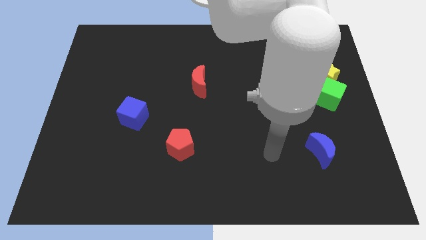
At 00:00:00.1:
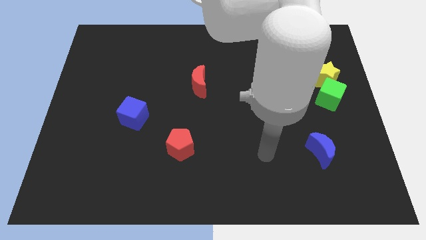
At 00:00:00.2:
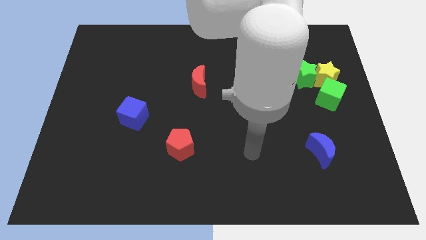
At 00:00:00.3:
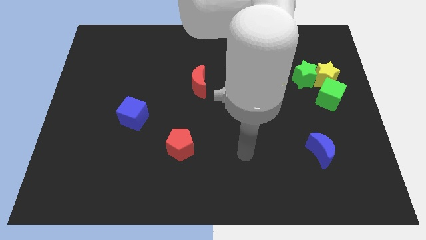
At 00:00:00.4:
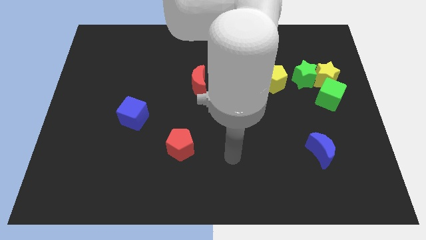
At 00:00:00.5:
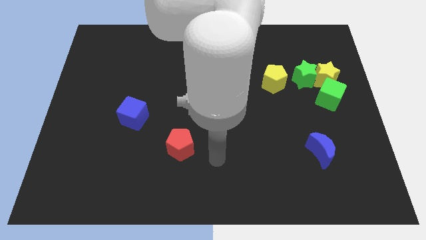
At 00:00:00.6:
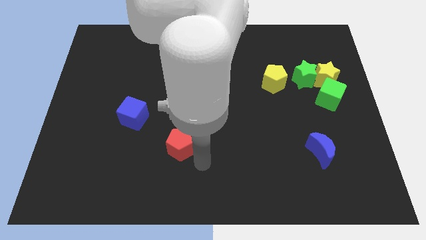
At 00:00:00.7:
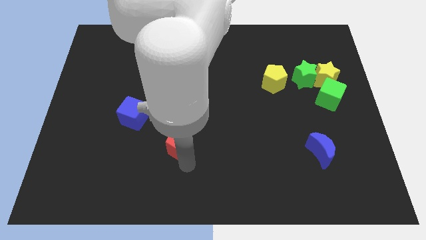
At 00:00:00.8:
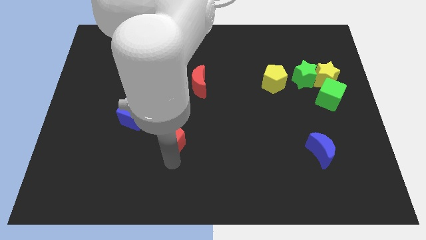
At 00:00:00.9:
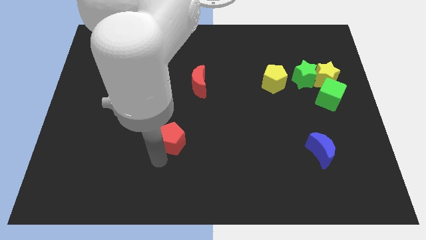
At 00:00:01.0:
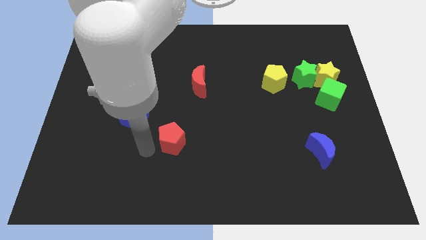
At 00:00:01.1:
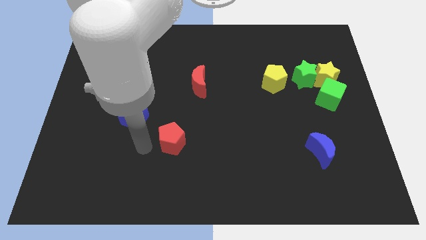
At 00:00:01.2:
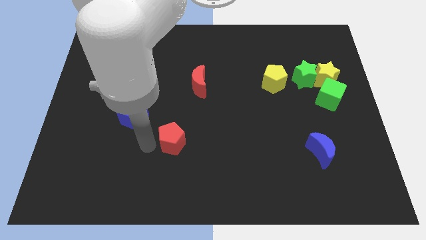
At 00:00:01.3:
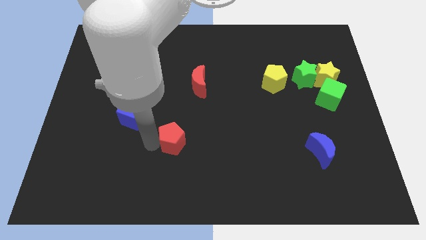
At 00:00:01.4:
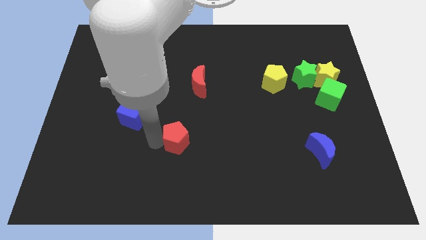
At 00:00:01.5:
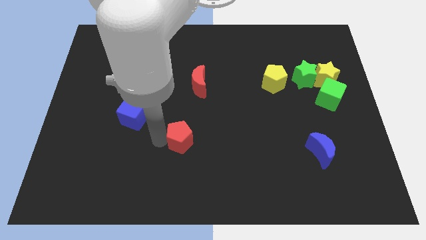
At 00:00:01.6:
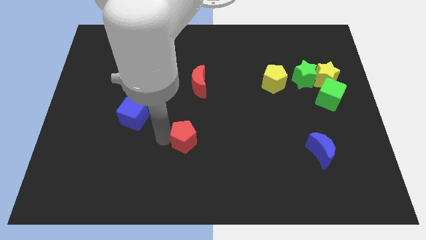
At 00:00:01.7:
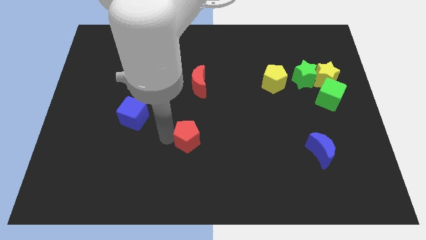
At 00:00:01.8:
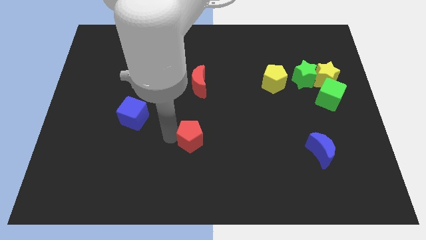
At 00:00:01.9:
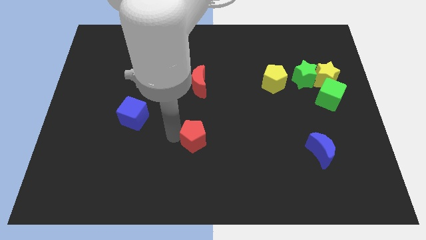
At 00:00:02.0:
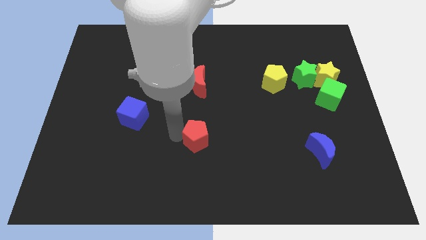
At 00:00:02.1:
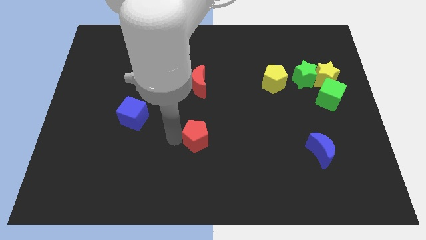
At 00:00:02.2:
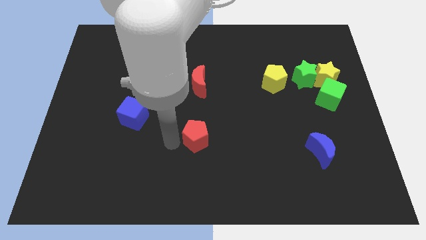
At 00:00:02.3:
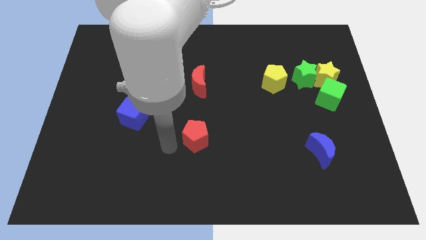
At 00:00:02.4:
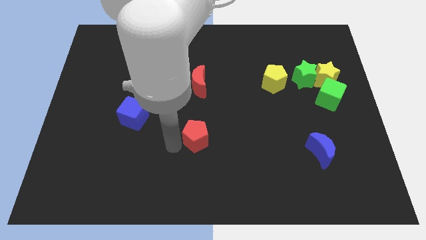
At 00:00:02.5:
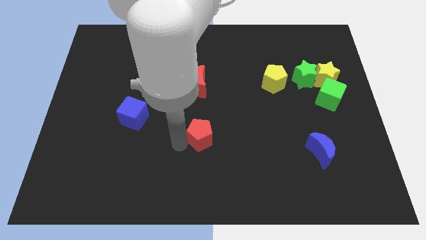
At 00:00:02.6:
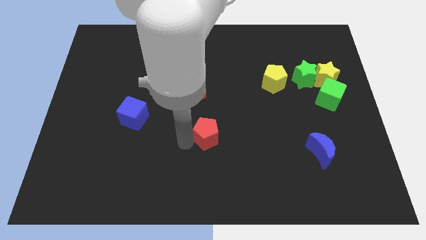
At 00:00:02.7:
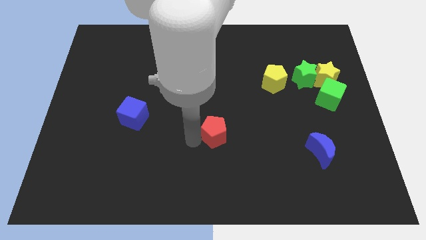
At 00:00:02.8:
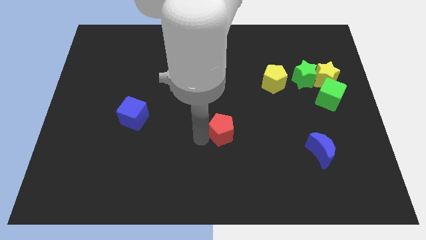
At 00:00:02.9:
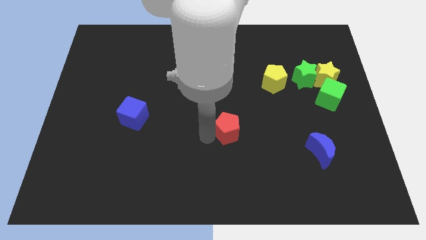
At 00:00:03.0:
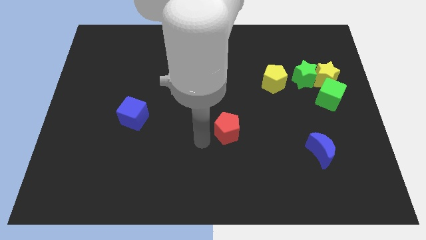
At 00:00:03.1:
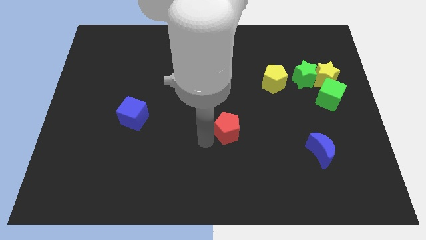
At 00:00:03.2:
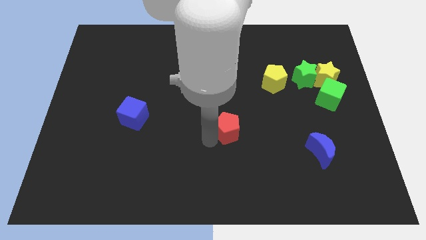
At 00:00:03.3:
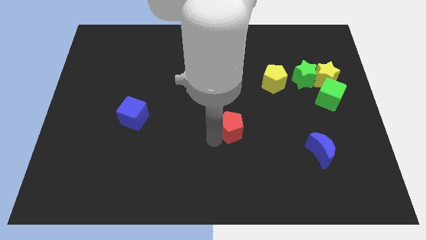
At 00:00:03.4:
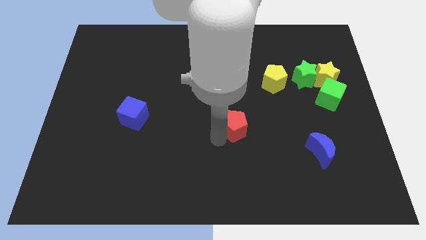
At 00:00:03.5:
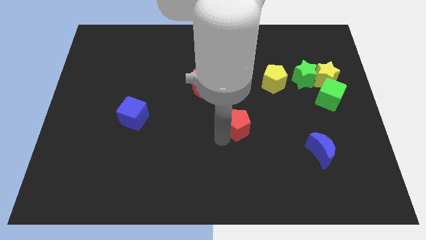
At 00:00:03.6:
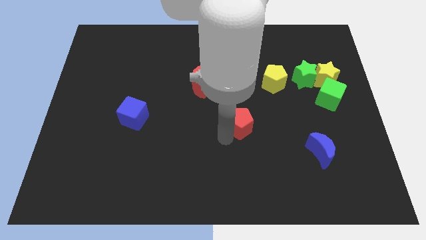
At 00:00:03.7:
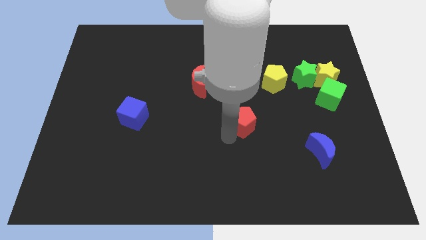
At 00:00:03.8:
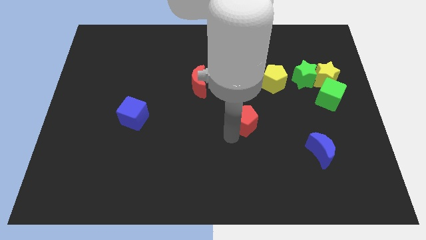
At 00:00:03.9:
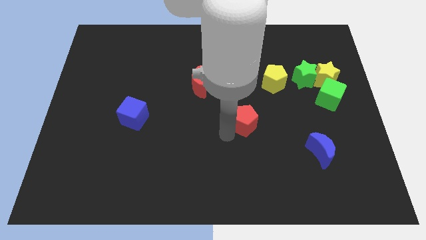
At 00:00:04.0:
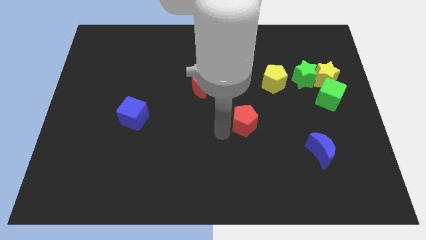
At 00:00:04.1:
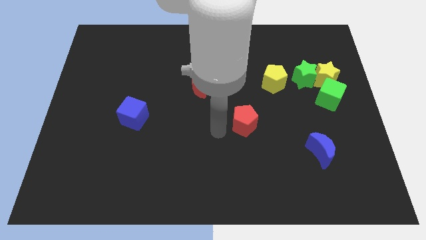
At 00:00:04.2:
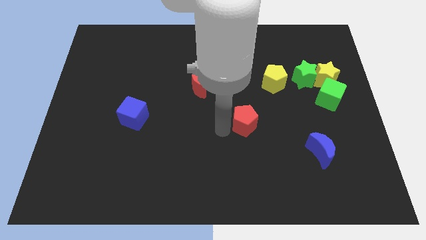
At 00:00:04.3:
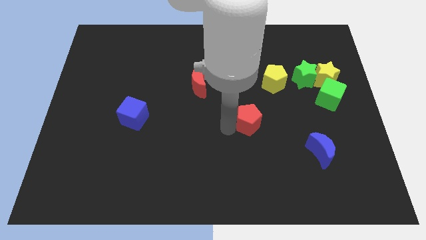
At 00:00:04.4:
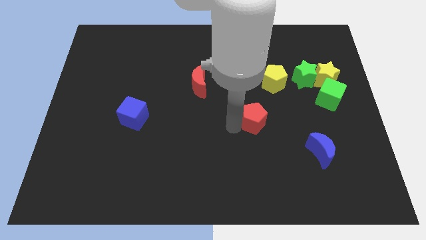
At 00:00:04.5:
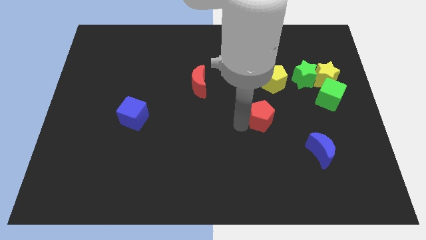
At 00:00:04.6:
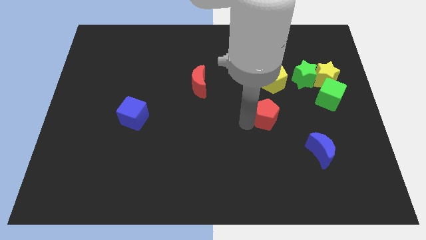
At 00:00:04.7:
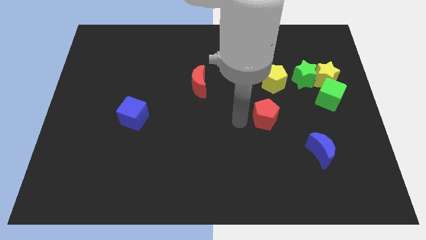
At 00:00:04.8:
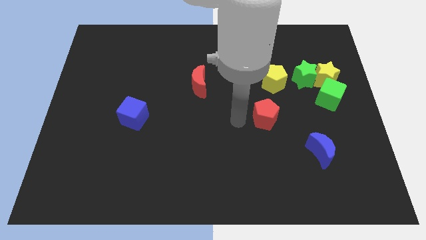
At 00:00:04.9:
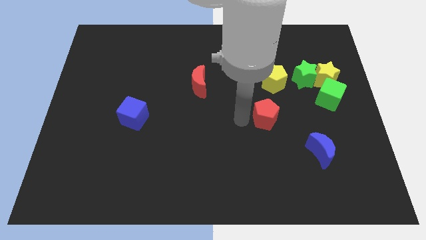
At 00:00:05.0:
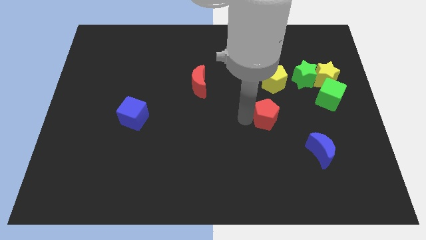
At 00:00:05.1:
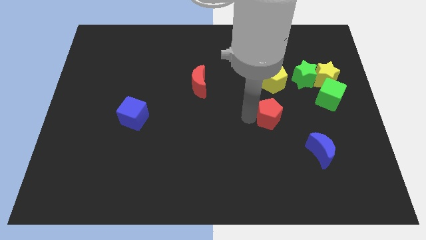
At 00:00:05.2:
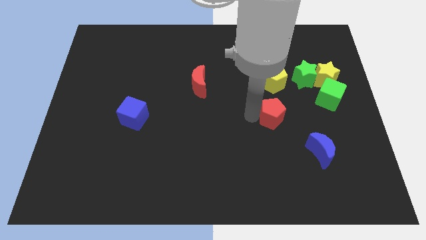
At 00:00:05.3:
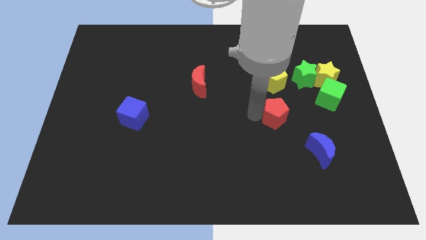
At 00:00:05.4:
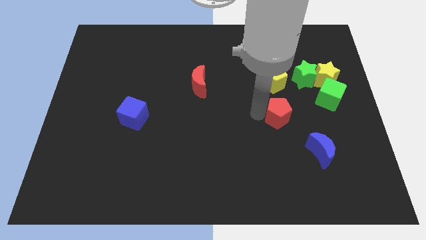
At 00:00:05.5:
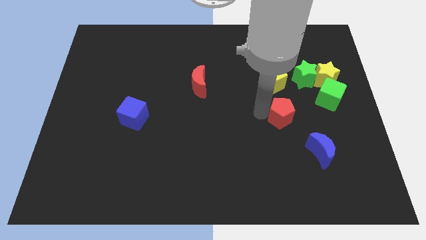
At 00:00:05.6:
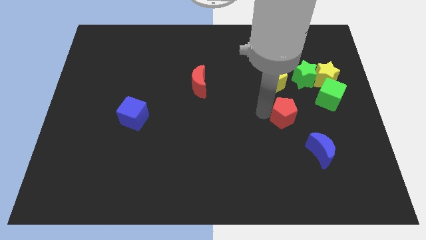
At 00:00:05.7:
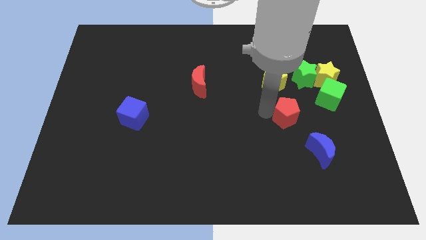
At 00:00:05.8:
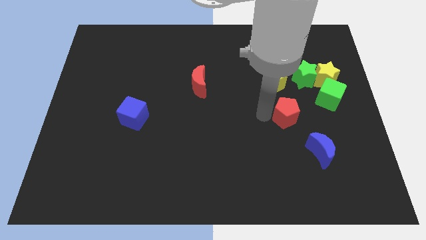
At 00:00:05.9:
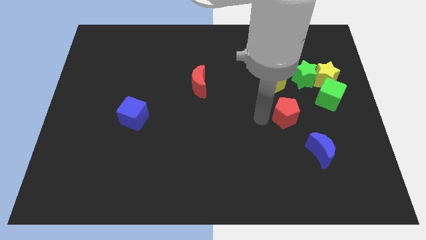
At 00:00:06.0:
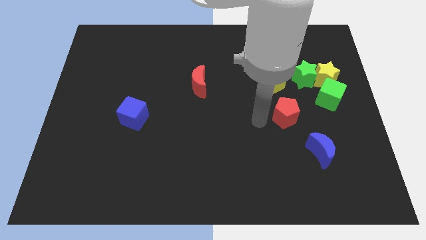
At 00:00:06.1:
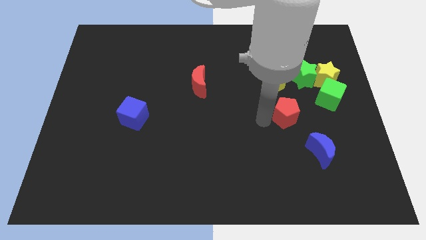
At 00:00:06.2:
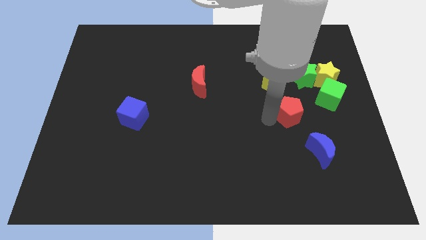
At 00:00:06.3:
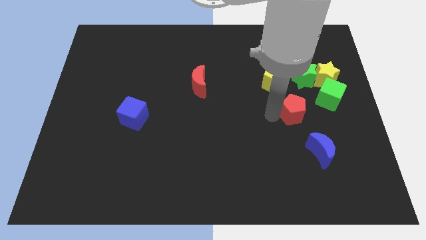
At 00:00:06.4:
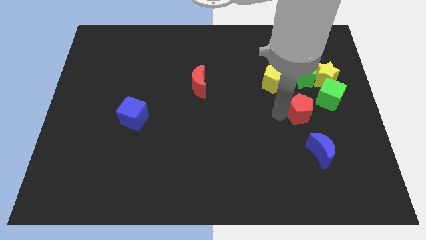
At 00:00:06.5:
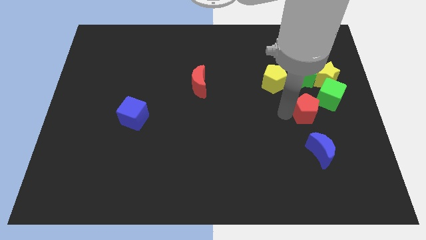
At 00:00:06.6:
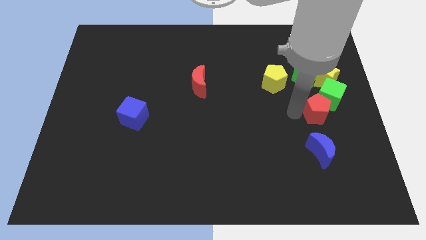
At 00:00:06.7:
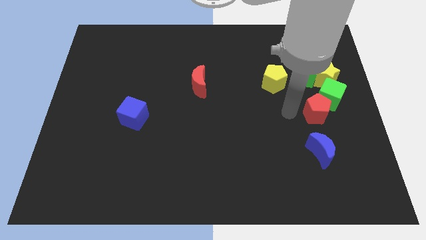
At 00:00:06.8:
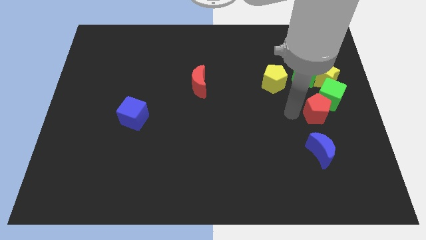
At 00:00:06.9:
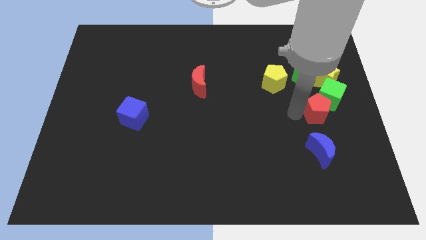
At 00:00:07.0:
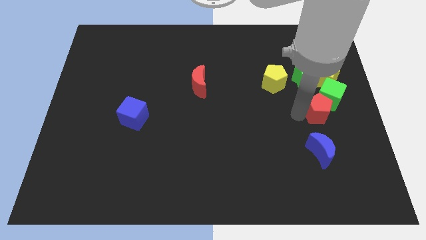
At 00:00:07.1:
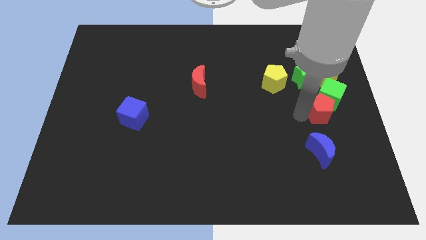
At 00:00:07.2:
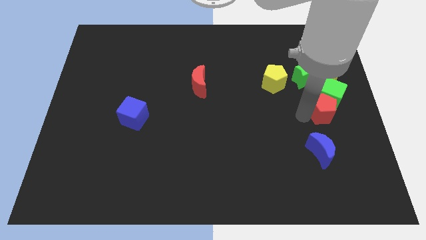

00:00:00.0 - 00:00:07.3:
put the red pentagon to the right side
